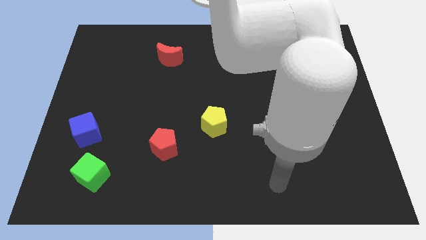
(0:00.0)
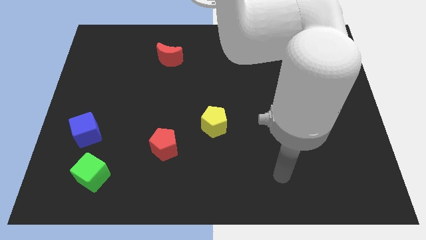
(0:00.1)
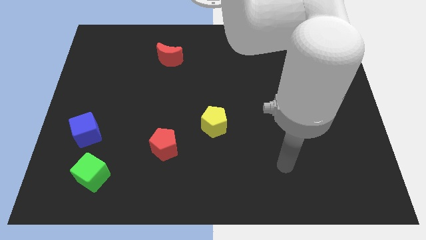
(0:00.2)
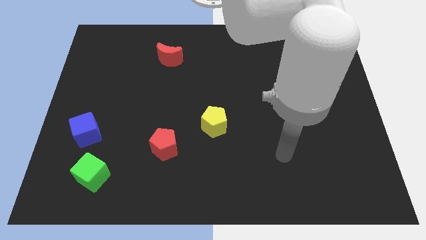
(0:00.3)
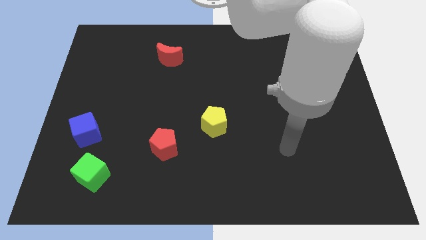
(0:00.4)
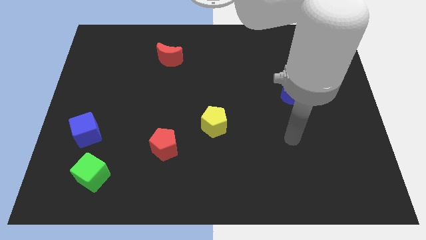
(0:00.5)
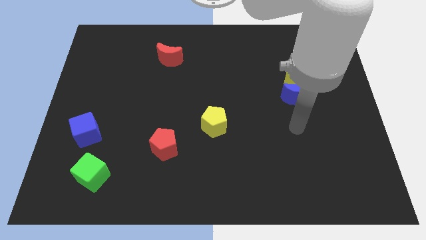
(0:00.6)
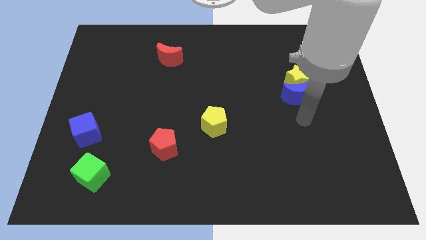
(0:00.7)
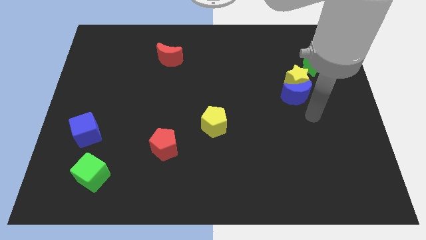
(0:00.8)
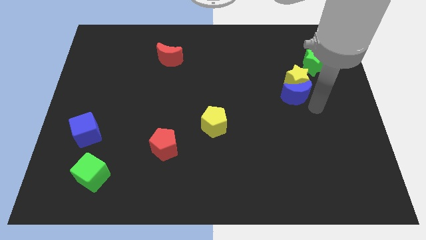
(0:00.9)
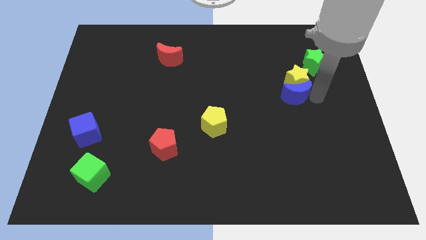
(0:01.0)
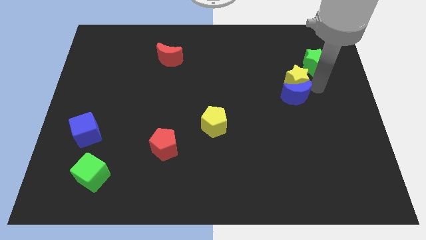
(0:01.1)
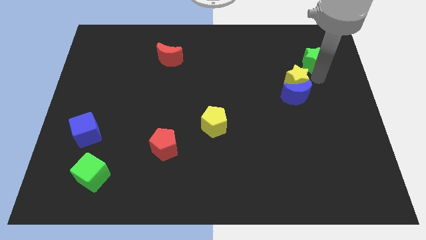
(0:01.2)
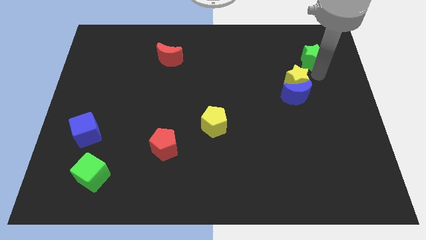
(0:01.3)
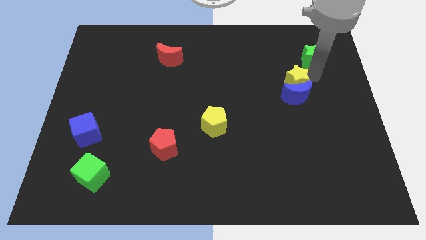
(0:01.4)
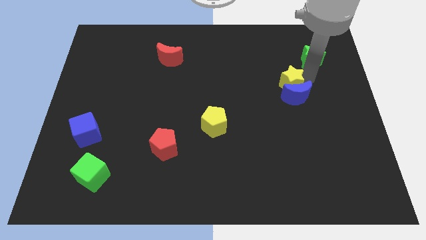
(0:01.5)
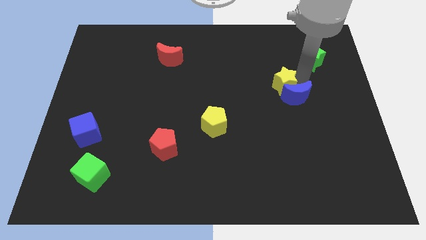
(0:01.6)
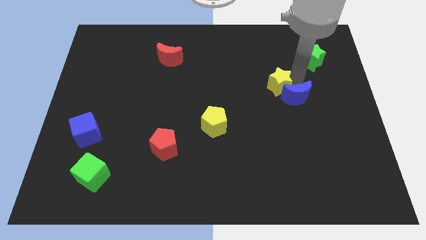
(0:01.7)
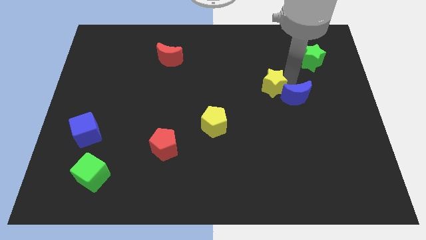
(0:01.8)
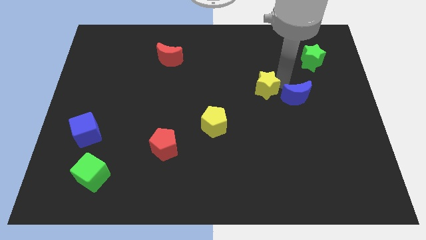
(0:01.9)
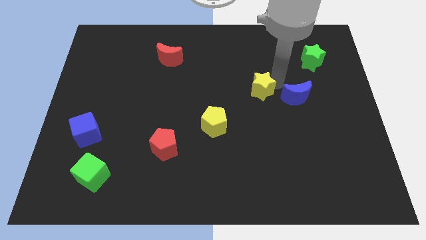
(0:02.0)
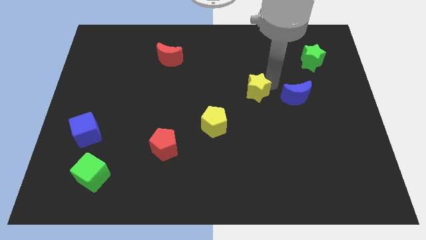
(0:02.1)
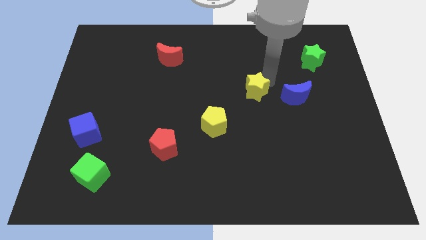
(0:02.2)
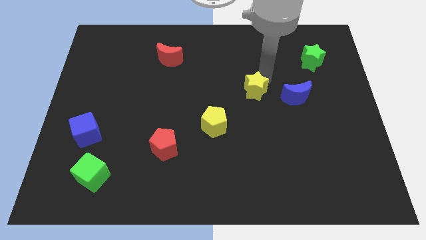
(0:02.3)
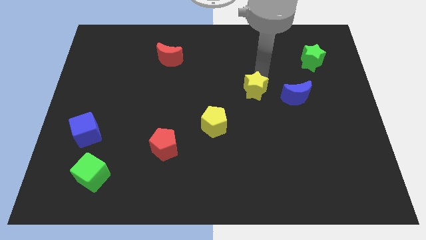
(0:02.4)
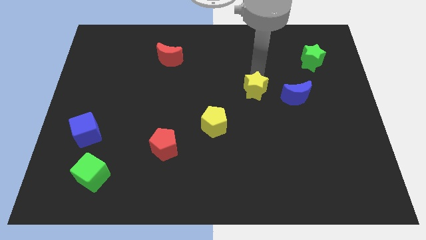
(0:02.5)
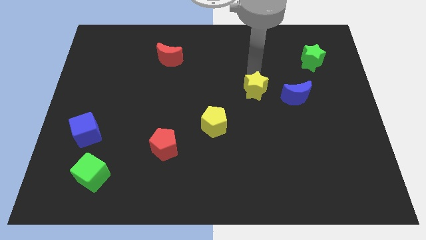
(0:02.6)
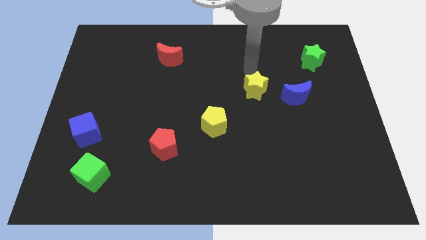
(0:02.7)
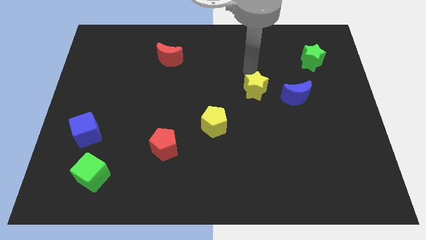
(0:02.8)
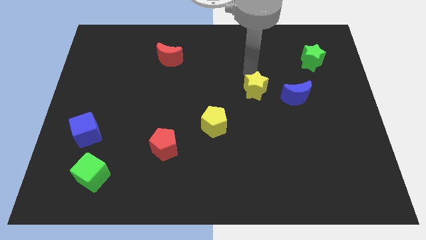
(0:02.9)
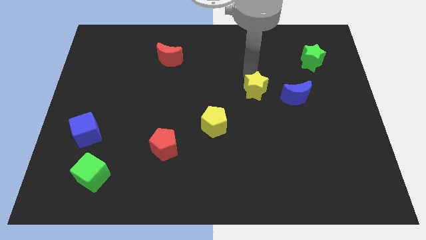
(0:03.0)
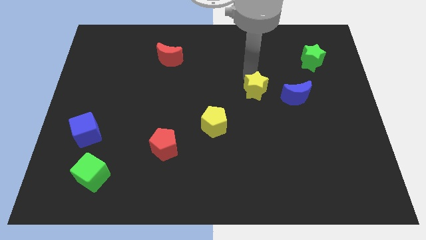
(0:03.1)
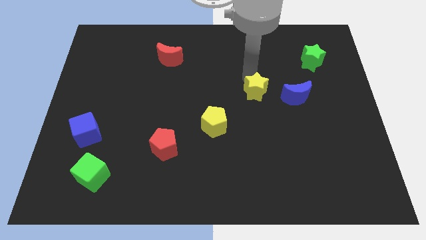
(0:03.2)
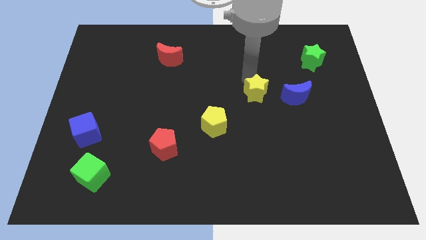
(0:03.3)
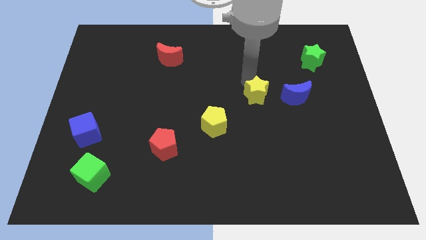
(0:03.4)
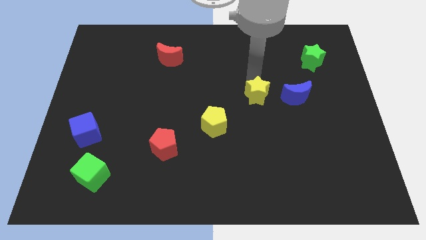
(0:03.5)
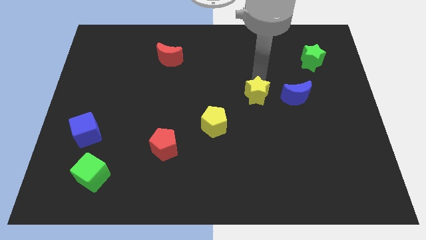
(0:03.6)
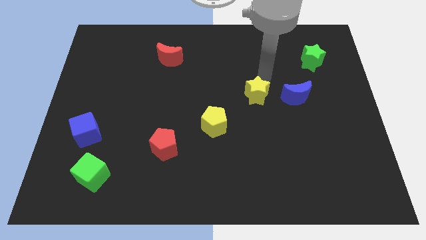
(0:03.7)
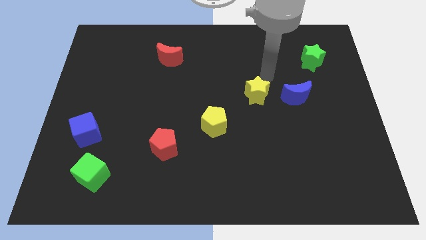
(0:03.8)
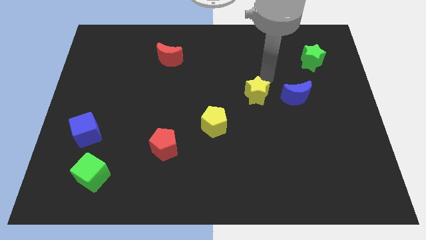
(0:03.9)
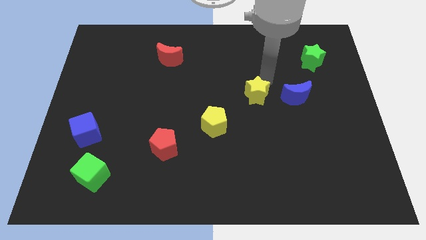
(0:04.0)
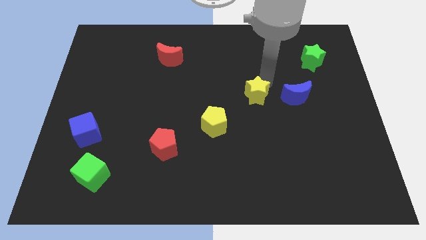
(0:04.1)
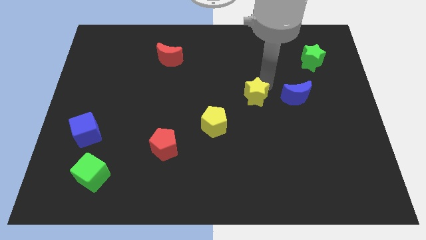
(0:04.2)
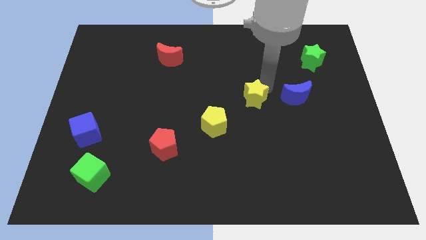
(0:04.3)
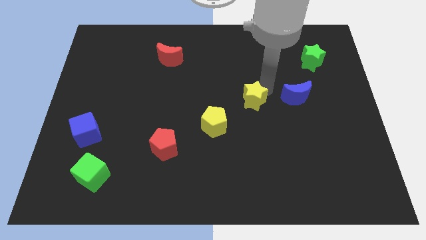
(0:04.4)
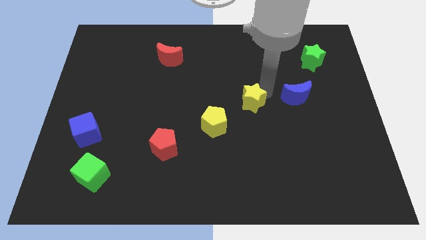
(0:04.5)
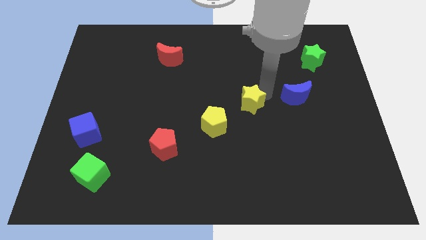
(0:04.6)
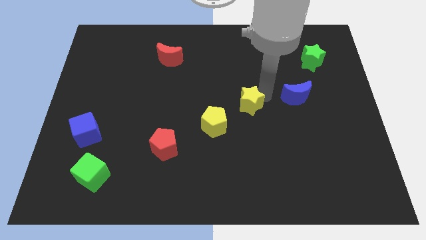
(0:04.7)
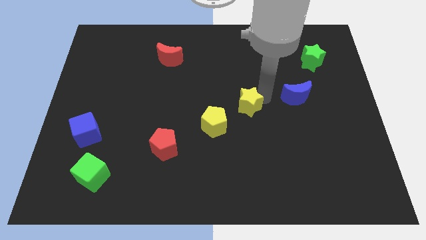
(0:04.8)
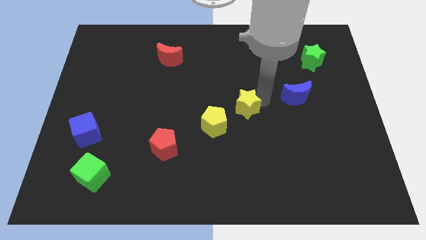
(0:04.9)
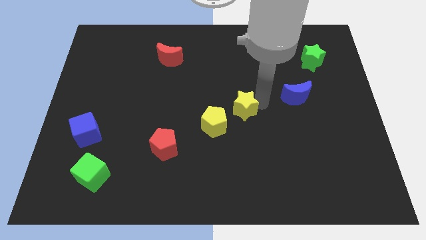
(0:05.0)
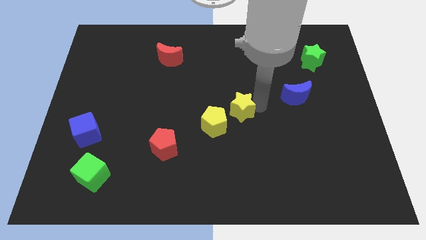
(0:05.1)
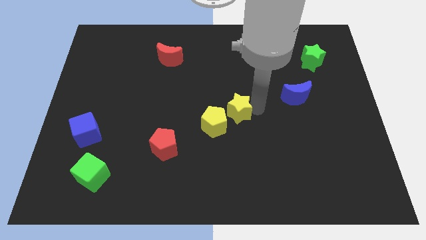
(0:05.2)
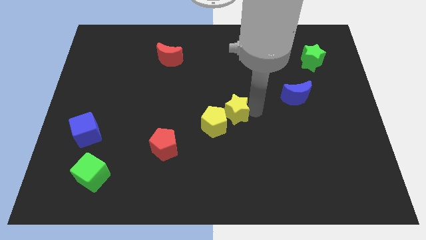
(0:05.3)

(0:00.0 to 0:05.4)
slide the yellow star next to the yellow pentagon

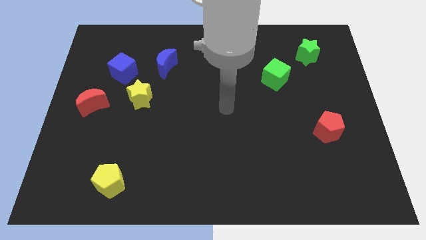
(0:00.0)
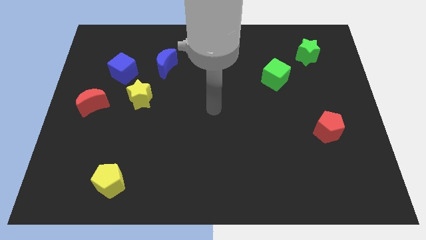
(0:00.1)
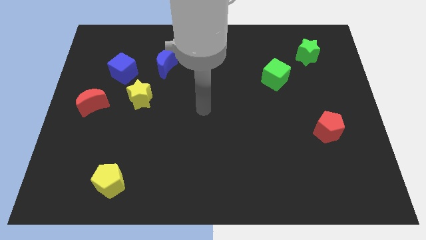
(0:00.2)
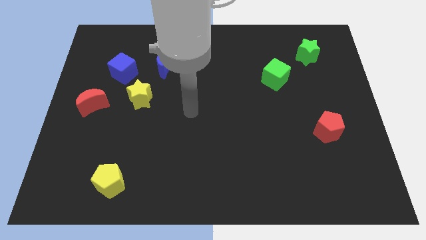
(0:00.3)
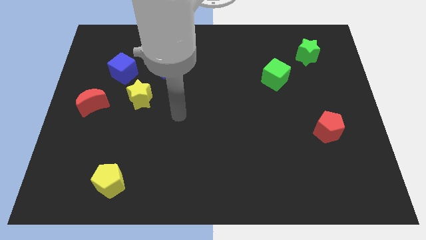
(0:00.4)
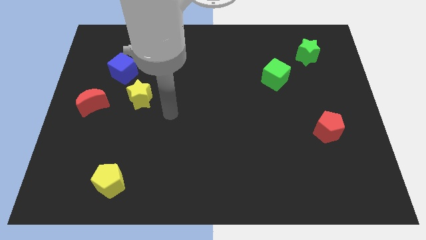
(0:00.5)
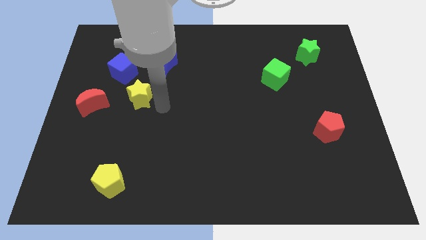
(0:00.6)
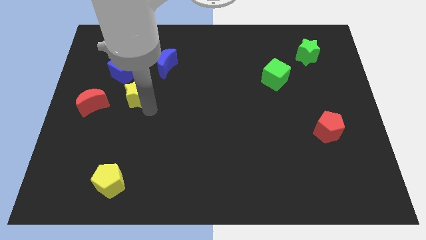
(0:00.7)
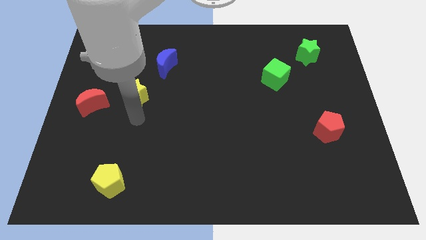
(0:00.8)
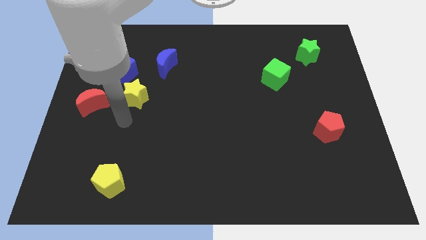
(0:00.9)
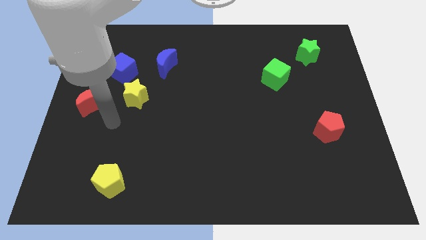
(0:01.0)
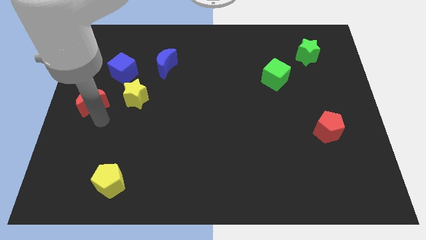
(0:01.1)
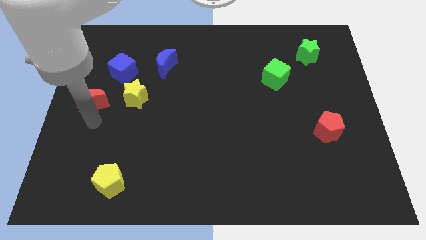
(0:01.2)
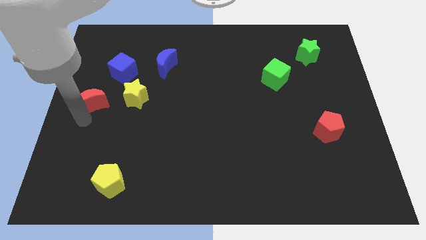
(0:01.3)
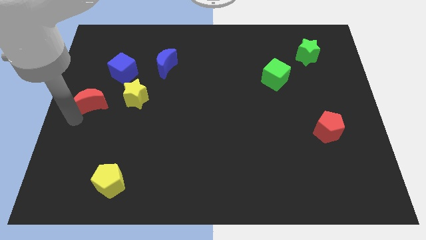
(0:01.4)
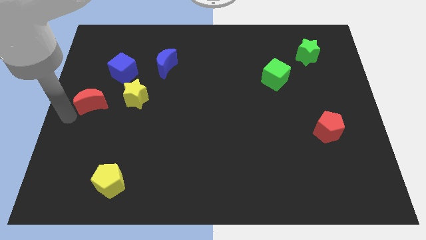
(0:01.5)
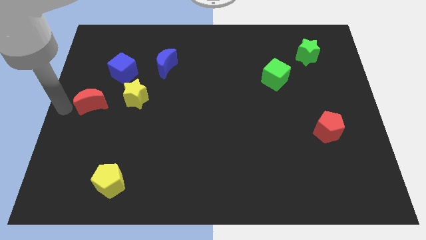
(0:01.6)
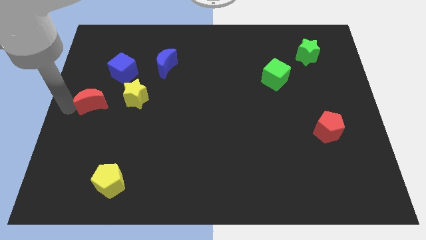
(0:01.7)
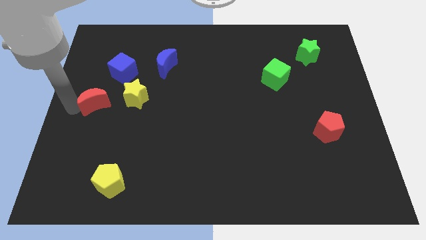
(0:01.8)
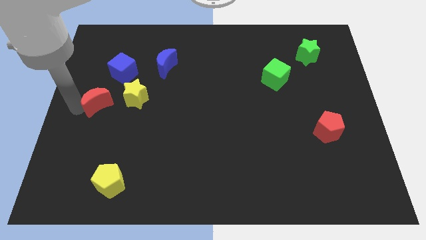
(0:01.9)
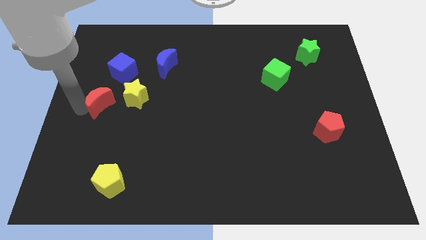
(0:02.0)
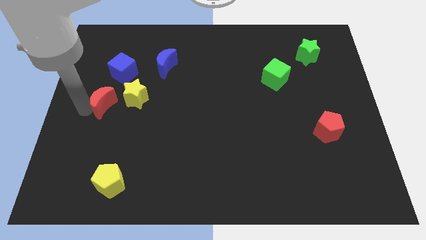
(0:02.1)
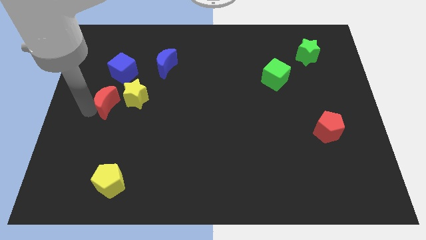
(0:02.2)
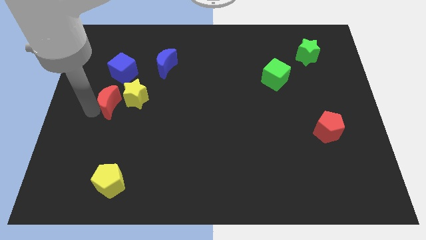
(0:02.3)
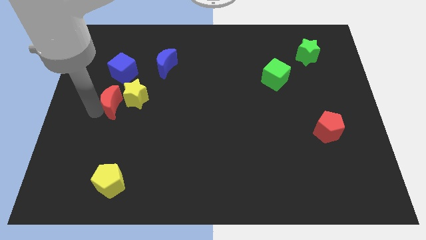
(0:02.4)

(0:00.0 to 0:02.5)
slide the red moon towards the yellow star
